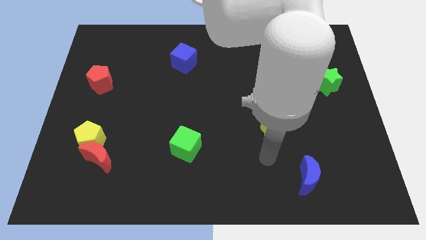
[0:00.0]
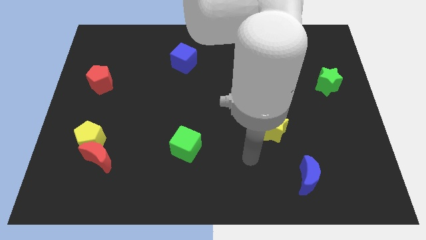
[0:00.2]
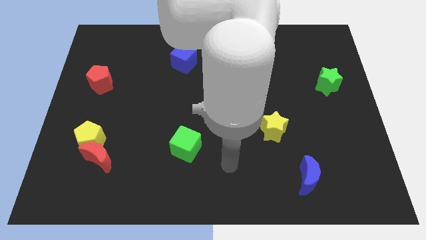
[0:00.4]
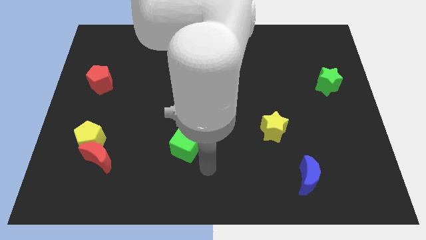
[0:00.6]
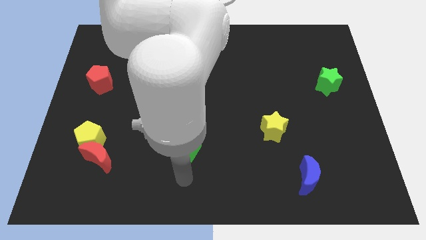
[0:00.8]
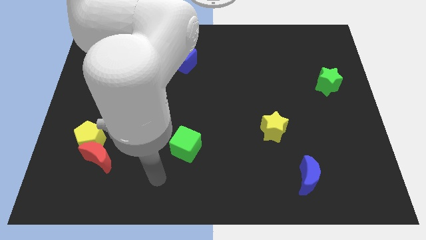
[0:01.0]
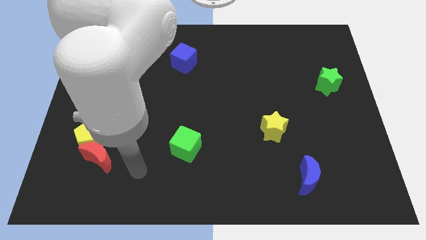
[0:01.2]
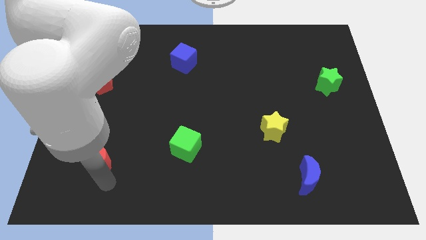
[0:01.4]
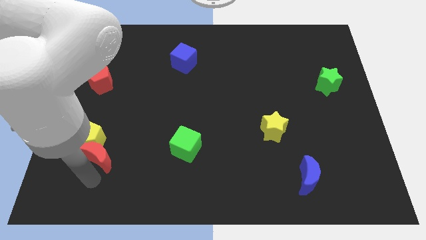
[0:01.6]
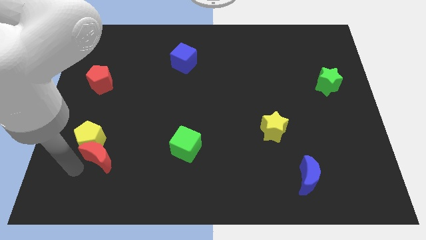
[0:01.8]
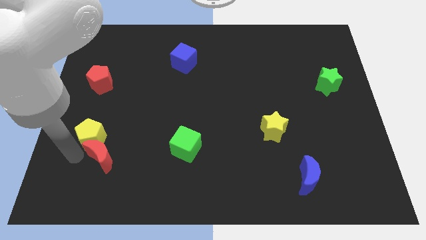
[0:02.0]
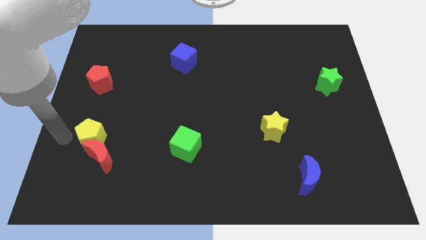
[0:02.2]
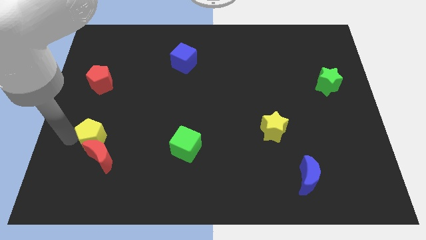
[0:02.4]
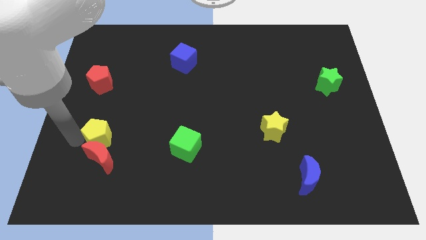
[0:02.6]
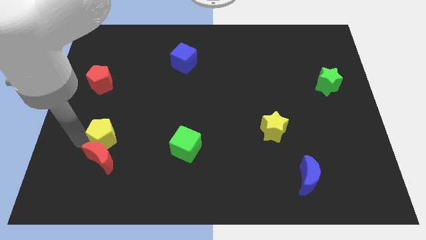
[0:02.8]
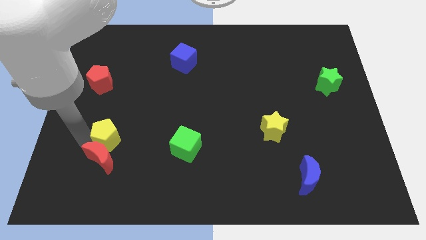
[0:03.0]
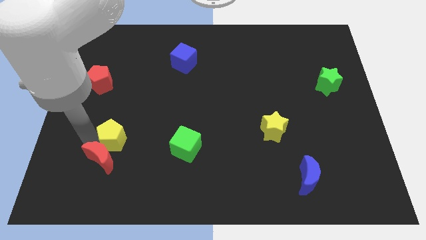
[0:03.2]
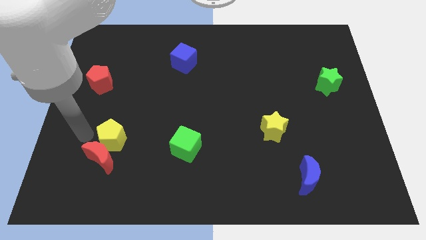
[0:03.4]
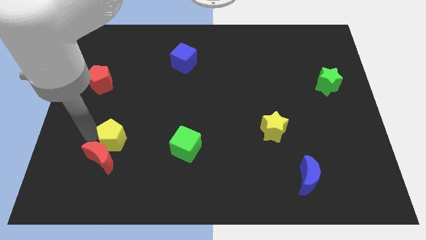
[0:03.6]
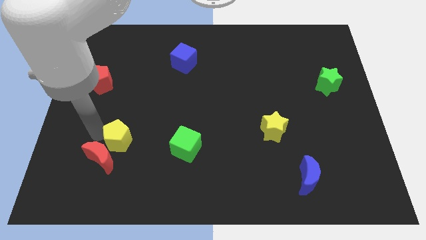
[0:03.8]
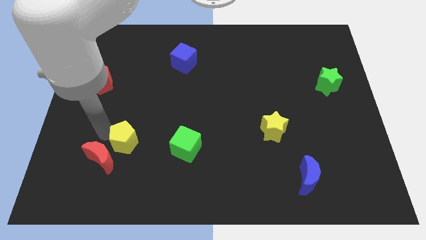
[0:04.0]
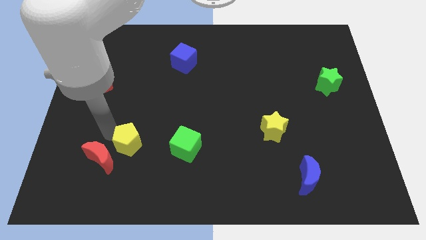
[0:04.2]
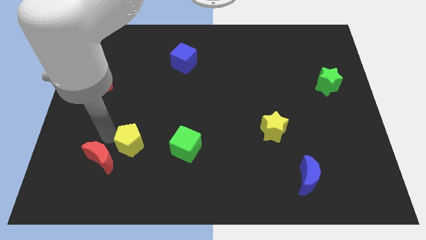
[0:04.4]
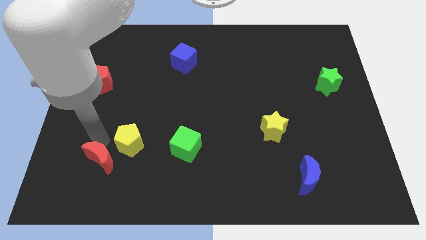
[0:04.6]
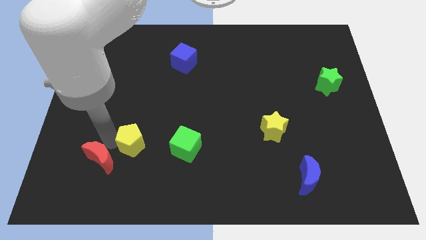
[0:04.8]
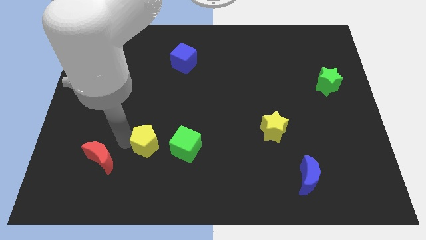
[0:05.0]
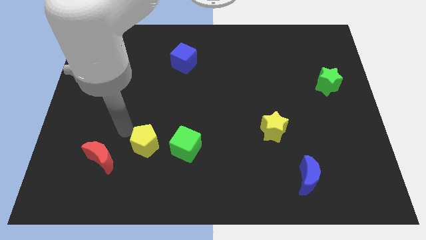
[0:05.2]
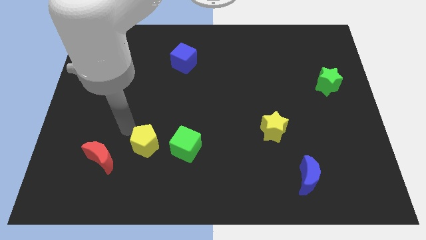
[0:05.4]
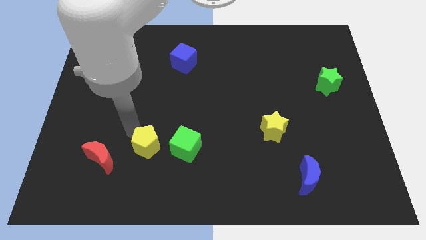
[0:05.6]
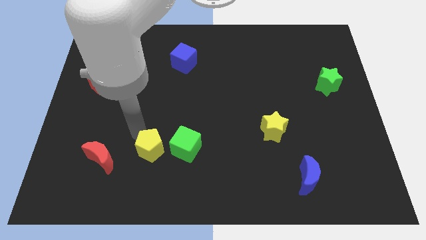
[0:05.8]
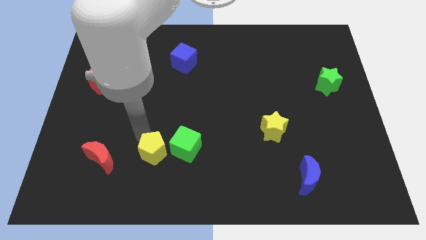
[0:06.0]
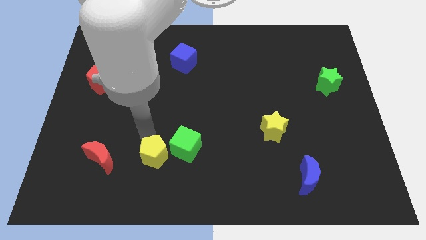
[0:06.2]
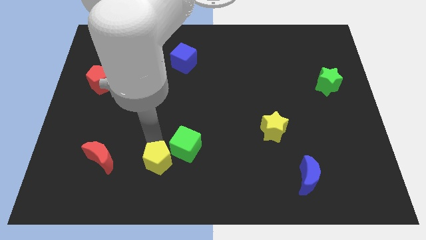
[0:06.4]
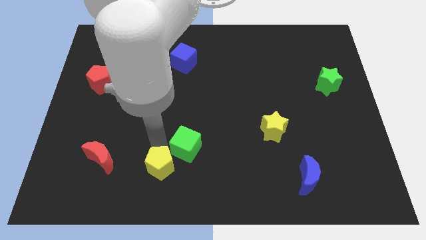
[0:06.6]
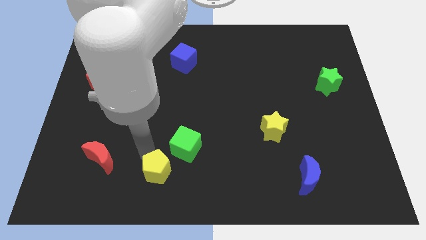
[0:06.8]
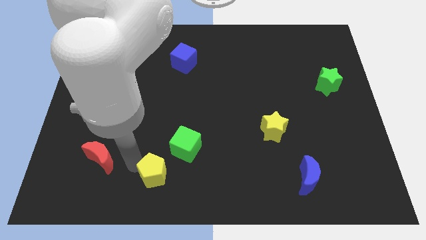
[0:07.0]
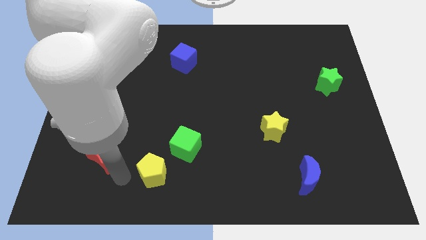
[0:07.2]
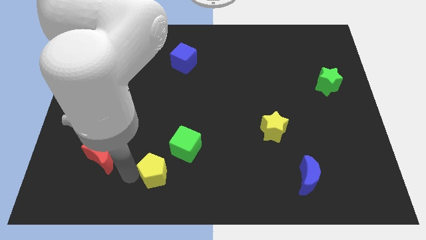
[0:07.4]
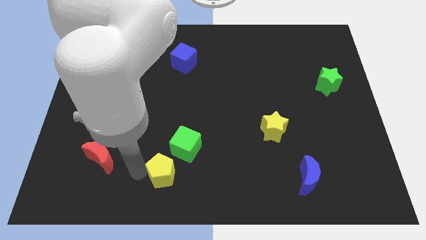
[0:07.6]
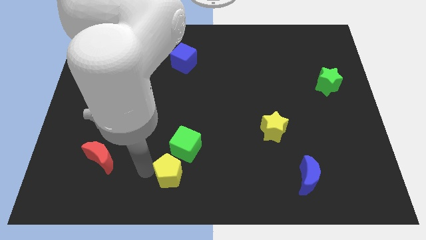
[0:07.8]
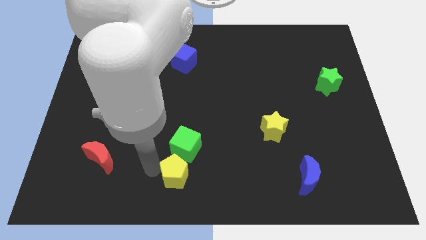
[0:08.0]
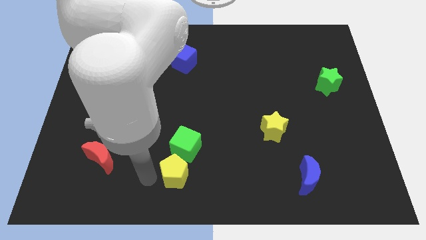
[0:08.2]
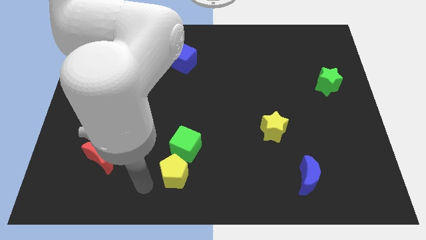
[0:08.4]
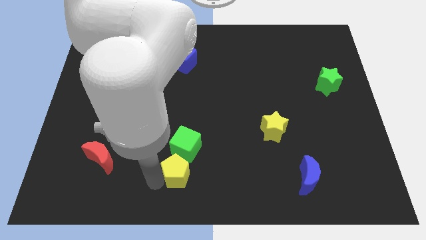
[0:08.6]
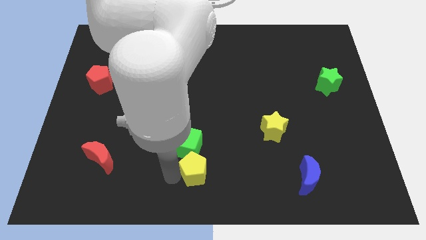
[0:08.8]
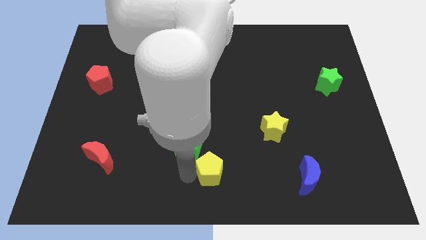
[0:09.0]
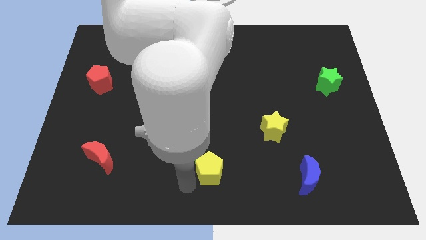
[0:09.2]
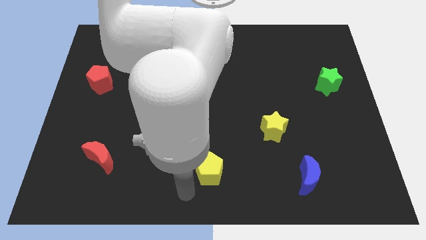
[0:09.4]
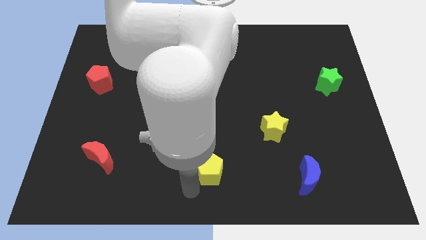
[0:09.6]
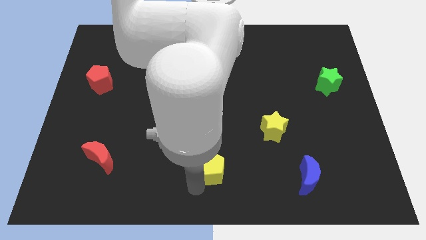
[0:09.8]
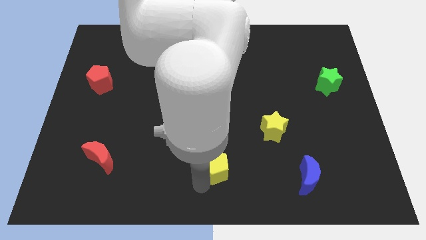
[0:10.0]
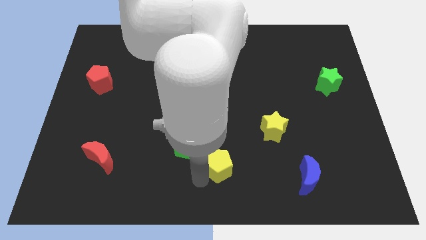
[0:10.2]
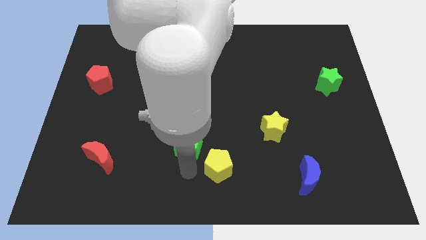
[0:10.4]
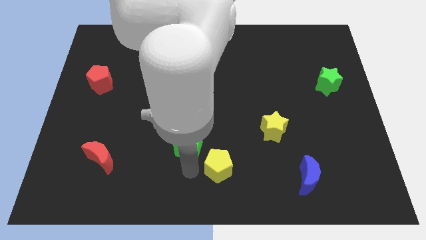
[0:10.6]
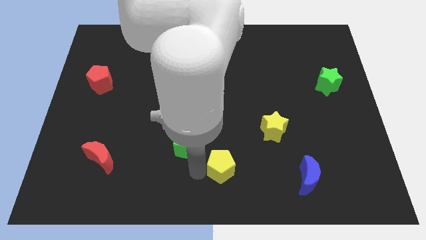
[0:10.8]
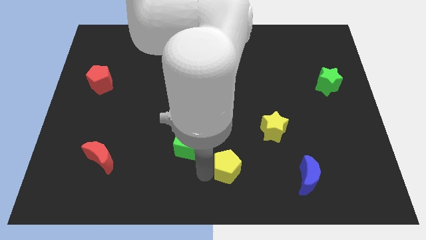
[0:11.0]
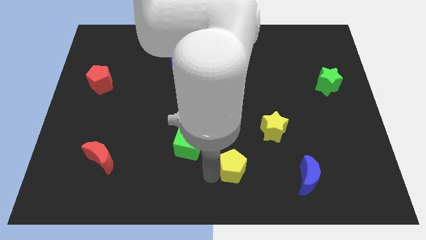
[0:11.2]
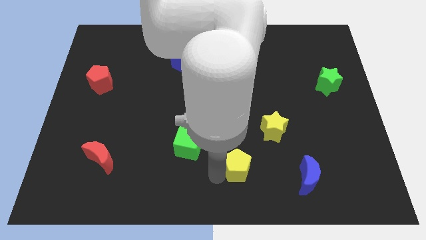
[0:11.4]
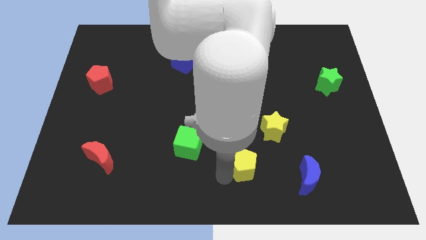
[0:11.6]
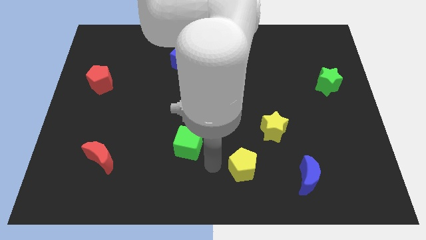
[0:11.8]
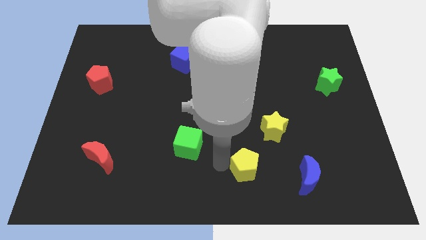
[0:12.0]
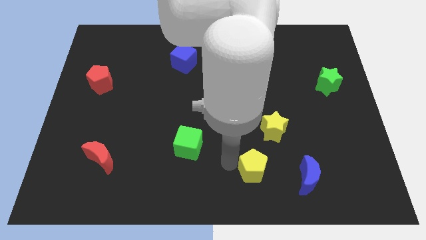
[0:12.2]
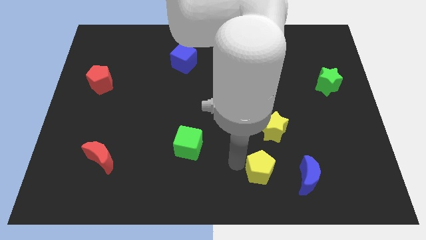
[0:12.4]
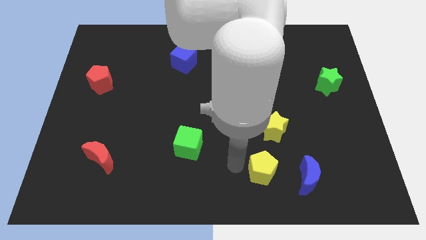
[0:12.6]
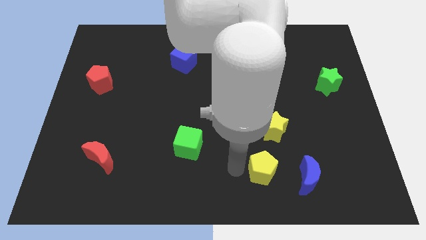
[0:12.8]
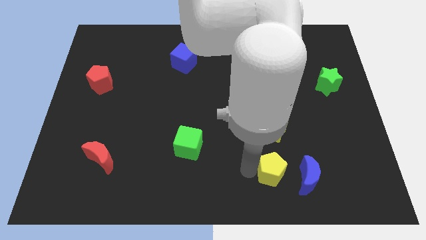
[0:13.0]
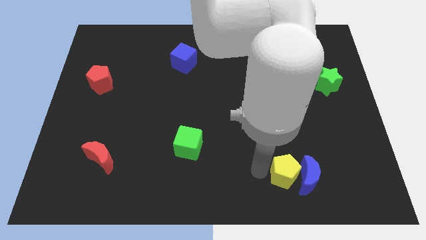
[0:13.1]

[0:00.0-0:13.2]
put the yellow pentagon close to the blue moon

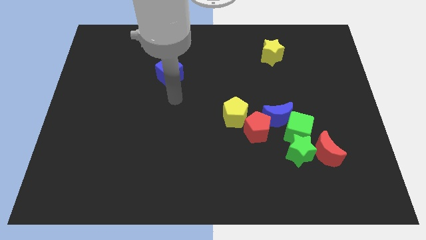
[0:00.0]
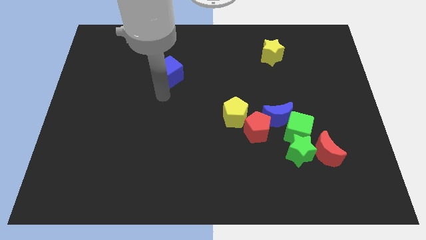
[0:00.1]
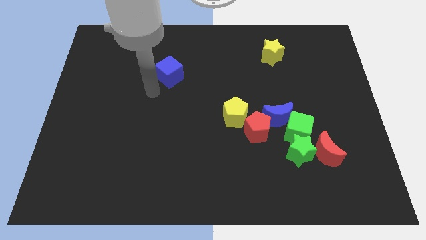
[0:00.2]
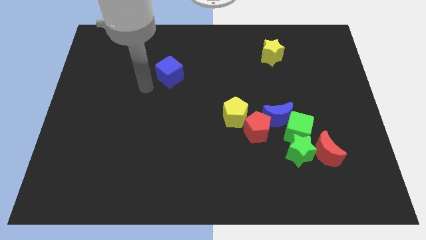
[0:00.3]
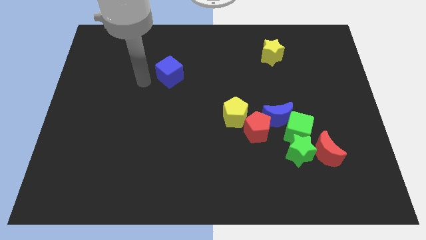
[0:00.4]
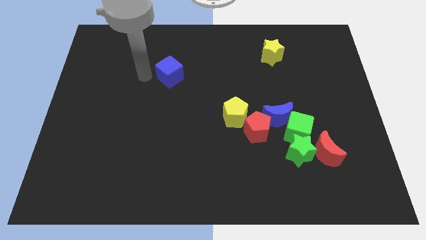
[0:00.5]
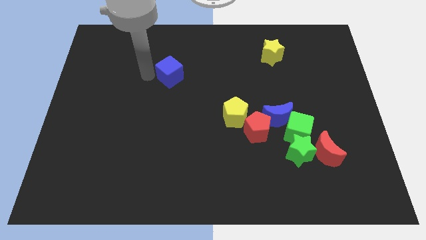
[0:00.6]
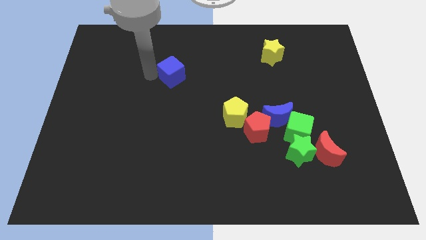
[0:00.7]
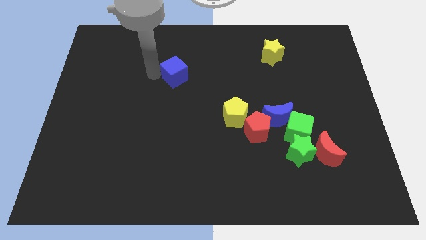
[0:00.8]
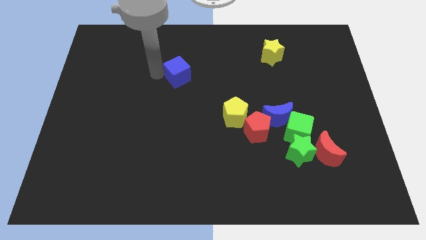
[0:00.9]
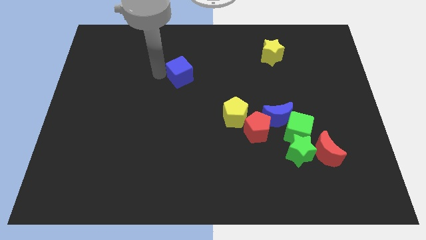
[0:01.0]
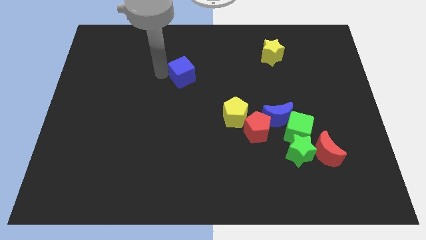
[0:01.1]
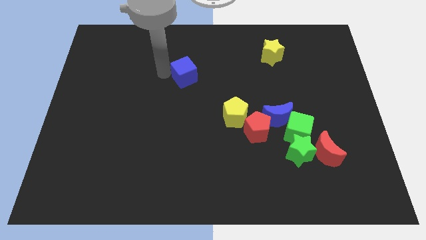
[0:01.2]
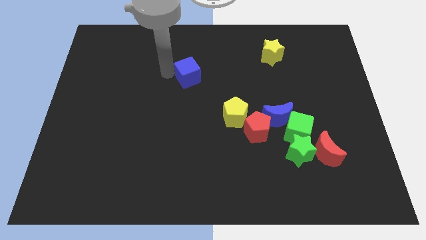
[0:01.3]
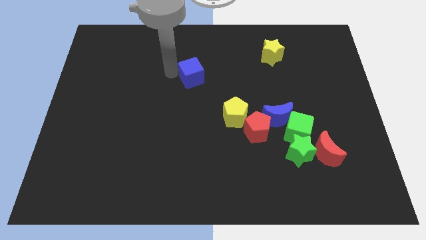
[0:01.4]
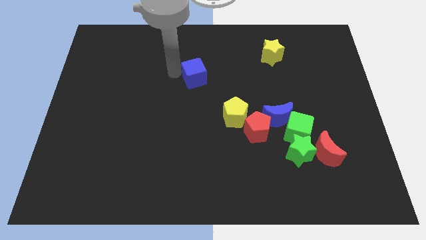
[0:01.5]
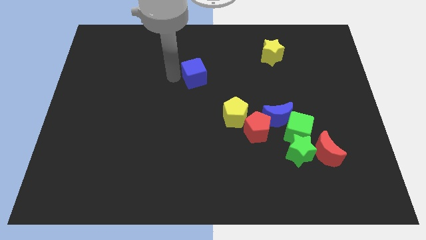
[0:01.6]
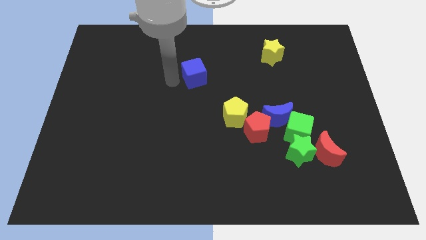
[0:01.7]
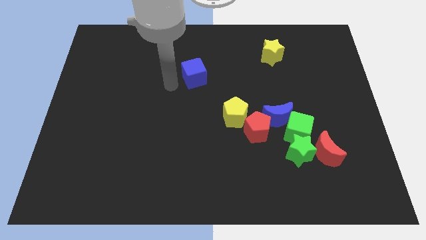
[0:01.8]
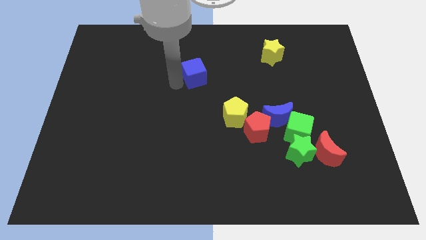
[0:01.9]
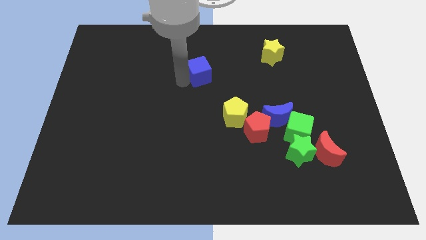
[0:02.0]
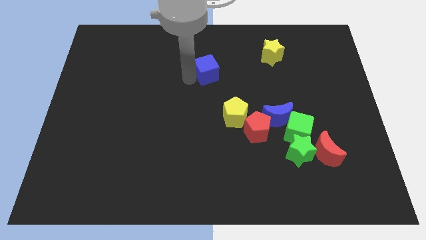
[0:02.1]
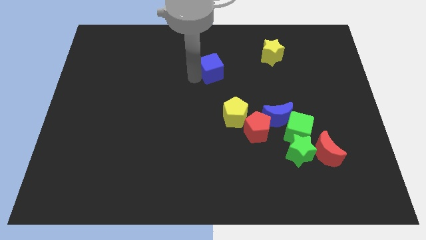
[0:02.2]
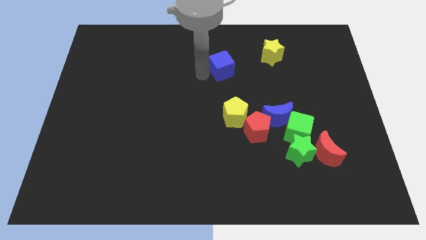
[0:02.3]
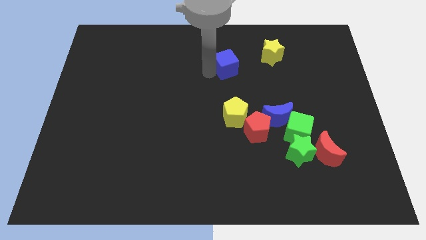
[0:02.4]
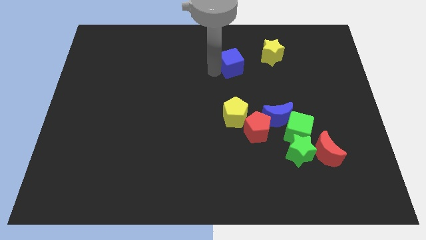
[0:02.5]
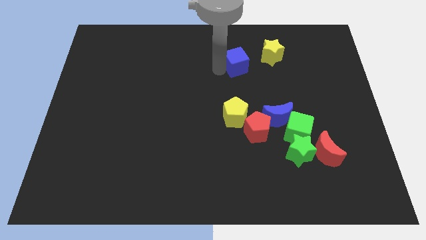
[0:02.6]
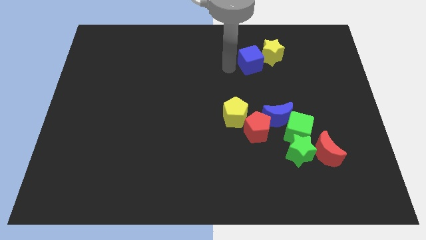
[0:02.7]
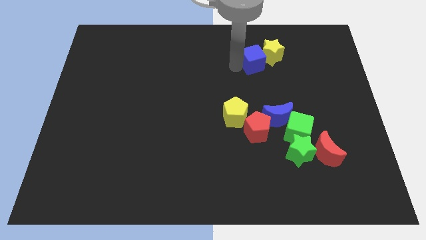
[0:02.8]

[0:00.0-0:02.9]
put the blue cube close to the yellow star
